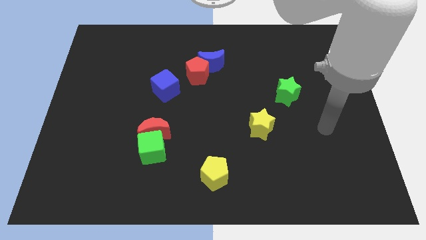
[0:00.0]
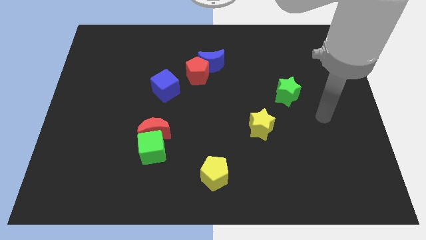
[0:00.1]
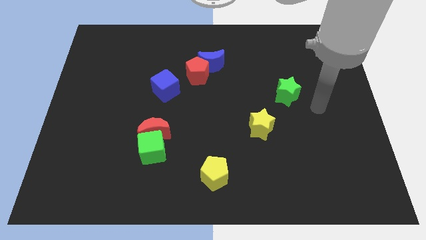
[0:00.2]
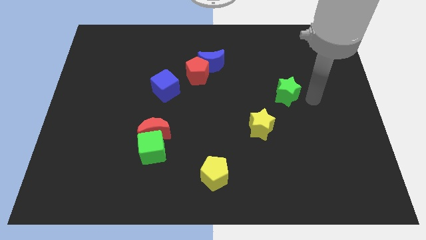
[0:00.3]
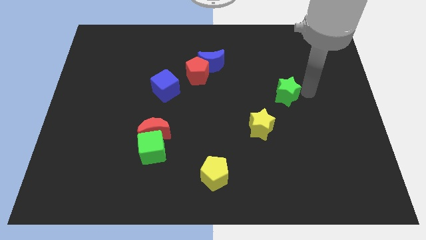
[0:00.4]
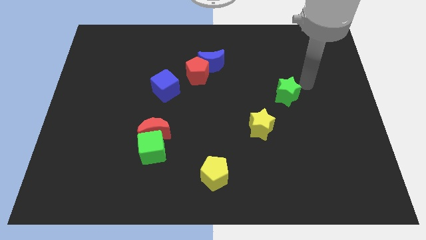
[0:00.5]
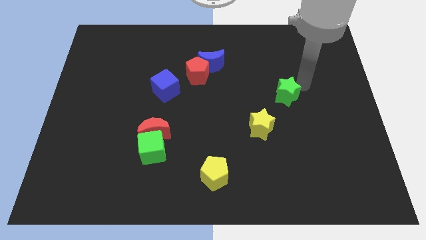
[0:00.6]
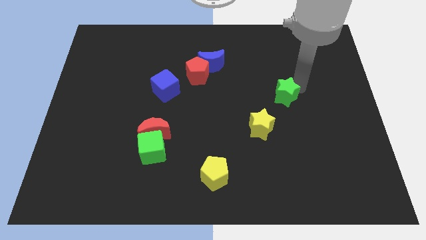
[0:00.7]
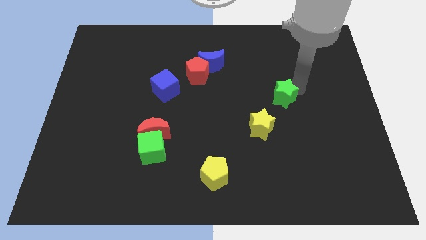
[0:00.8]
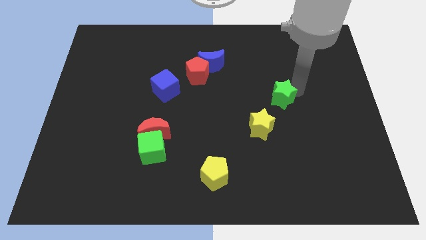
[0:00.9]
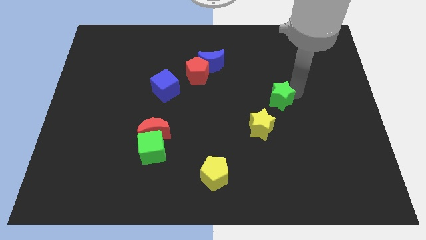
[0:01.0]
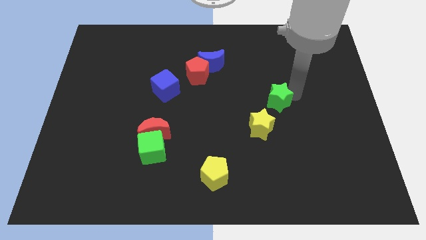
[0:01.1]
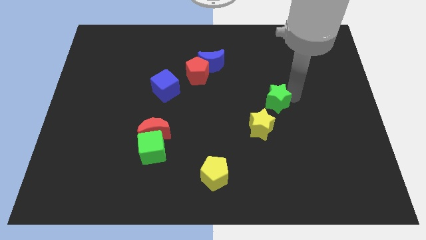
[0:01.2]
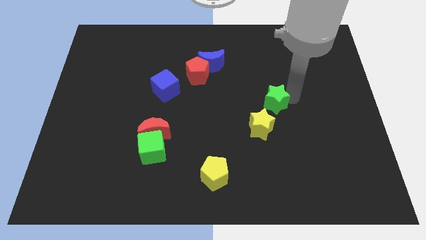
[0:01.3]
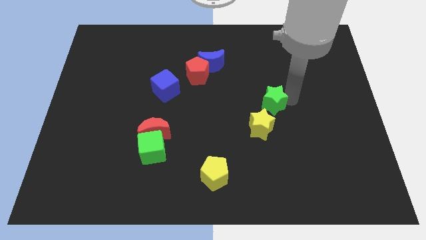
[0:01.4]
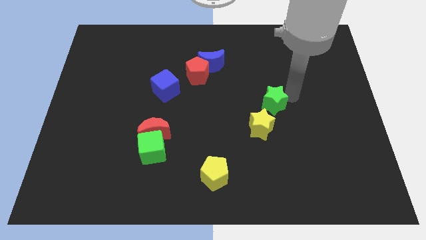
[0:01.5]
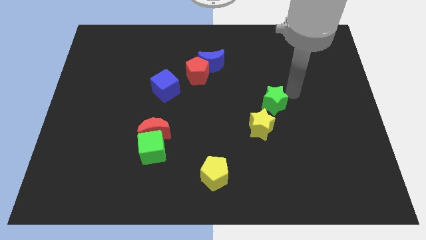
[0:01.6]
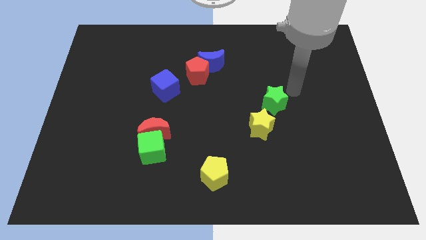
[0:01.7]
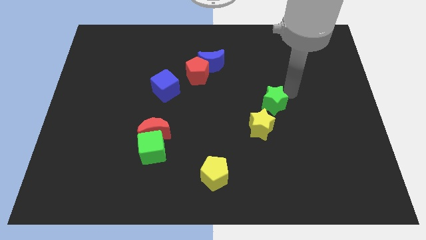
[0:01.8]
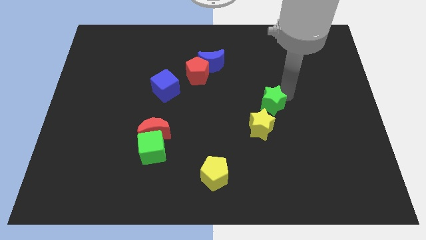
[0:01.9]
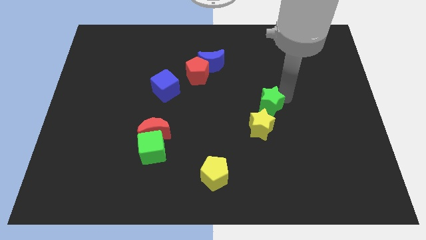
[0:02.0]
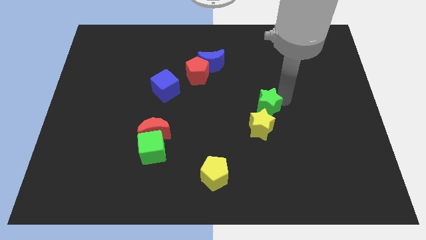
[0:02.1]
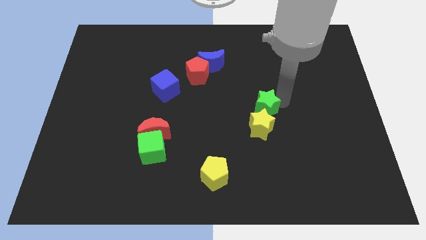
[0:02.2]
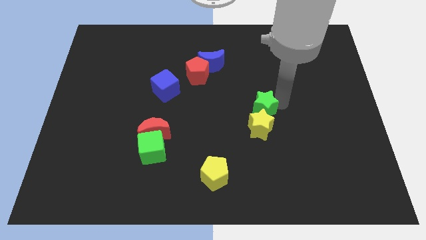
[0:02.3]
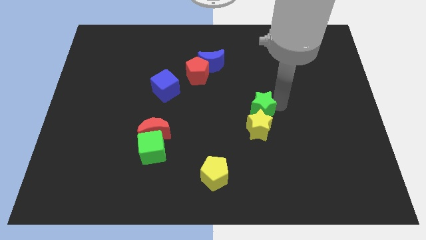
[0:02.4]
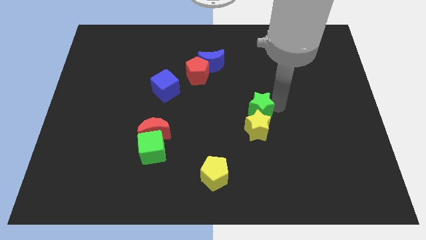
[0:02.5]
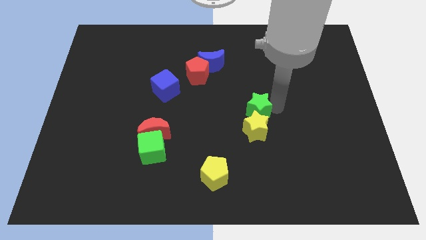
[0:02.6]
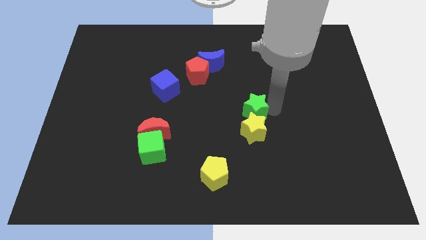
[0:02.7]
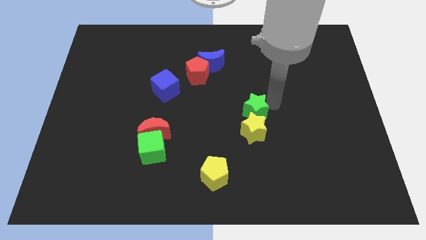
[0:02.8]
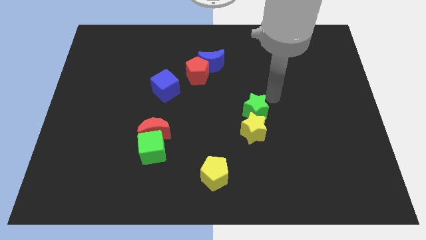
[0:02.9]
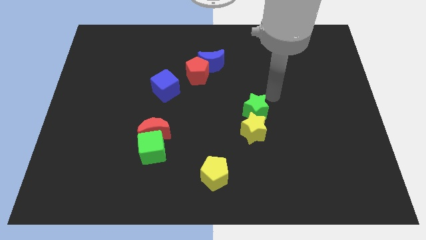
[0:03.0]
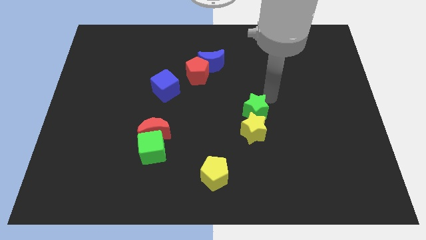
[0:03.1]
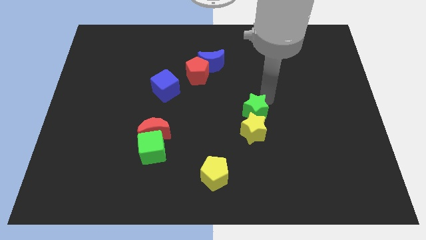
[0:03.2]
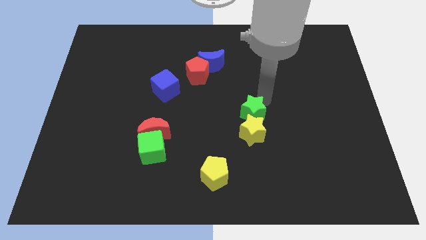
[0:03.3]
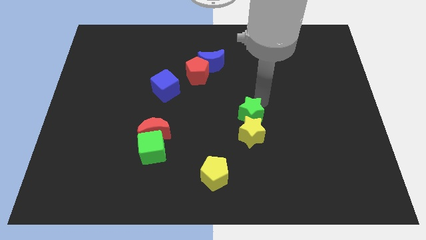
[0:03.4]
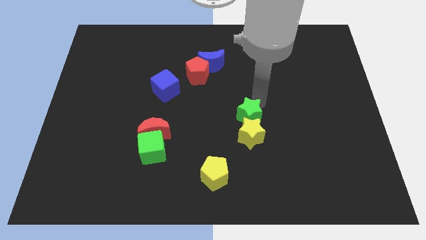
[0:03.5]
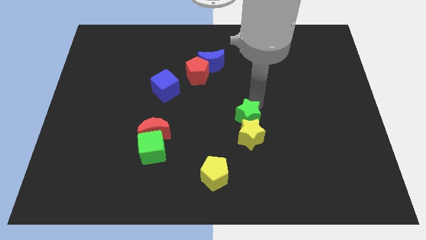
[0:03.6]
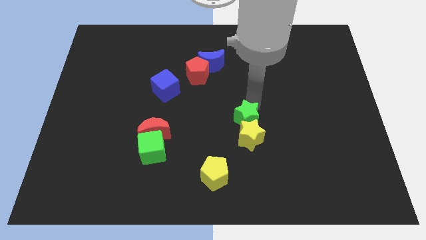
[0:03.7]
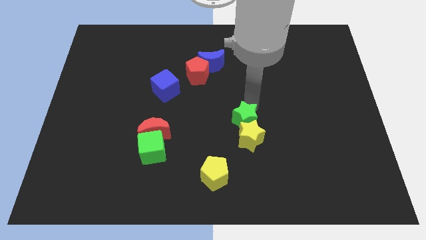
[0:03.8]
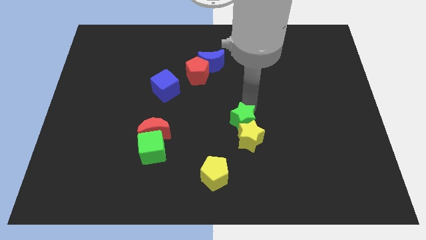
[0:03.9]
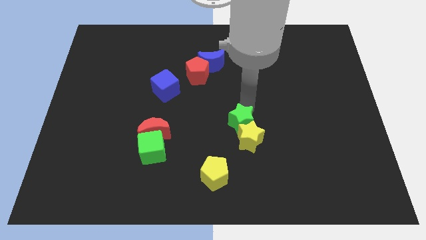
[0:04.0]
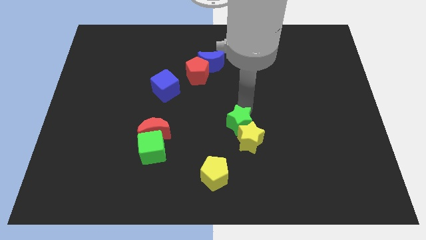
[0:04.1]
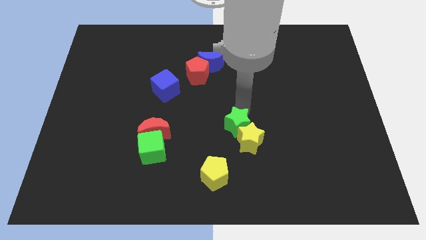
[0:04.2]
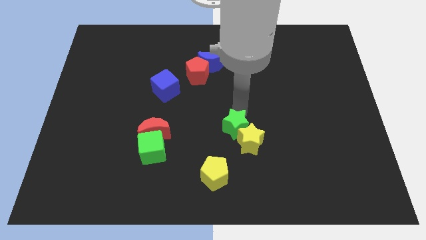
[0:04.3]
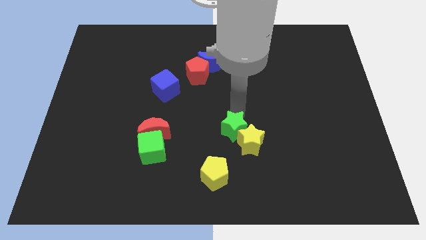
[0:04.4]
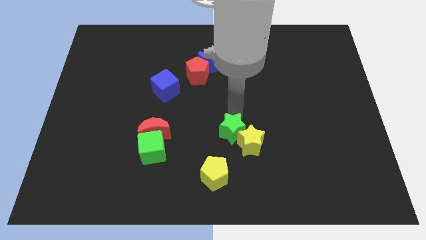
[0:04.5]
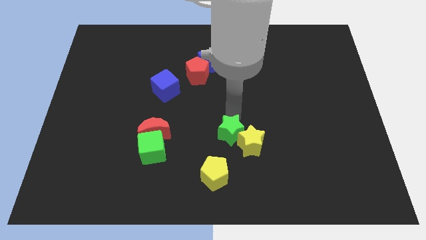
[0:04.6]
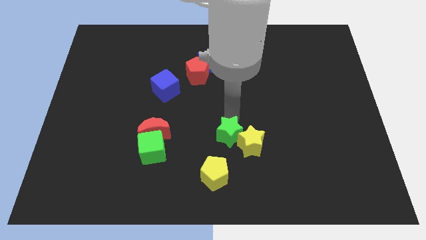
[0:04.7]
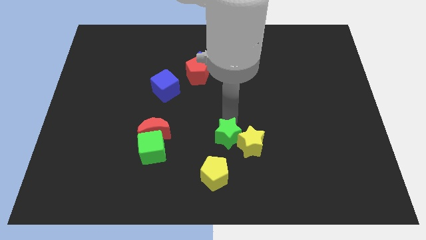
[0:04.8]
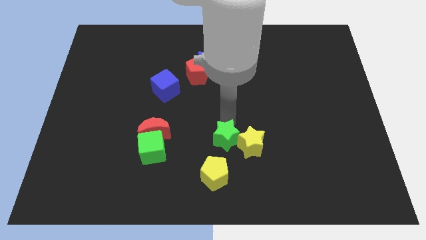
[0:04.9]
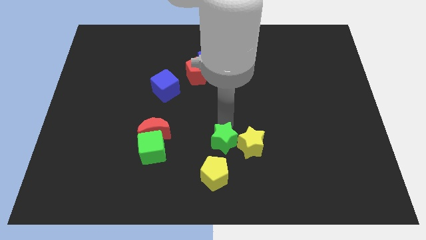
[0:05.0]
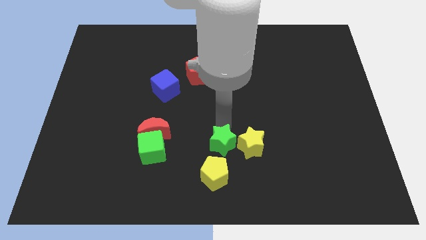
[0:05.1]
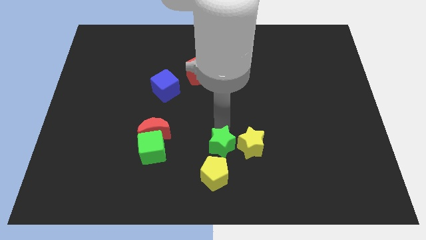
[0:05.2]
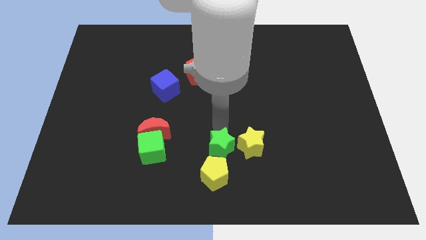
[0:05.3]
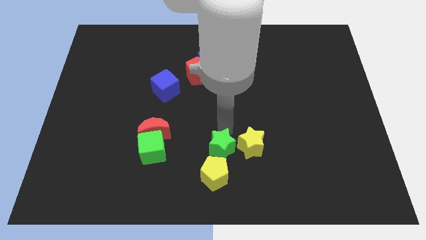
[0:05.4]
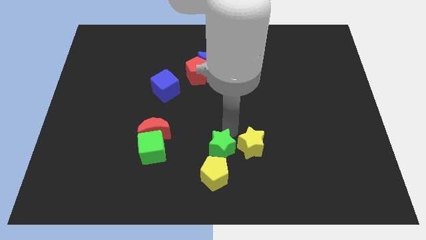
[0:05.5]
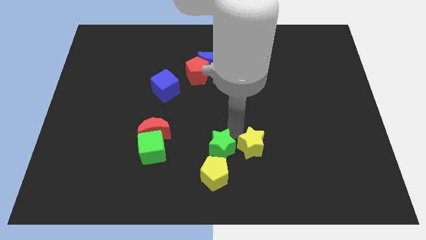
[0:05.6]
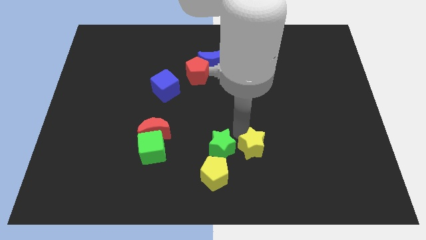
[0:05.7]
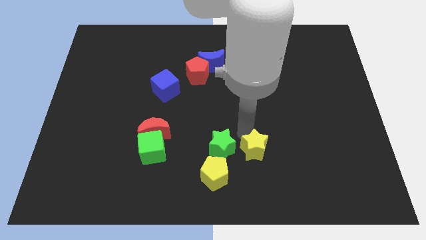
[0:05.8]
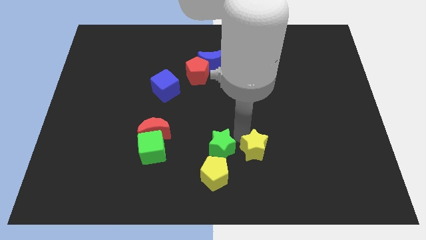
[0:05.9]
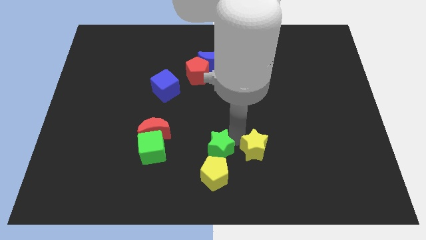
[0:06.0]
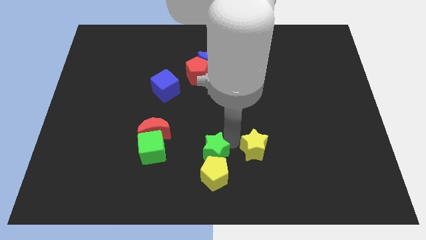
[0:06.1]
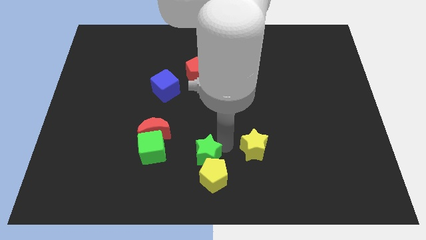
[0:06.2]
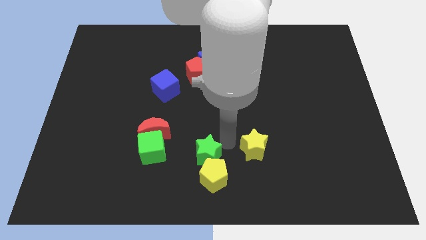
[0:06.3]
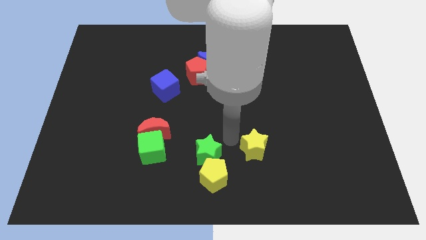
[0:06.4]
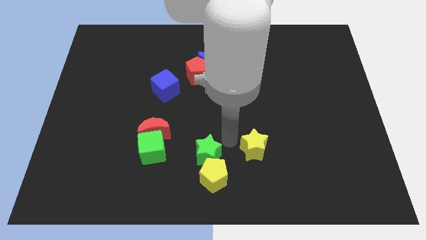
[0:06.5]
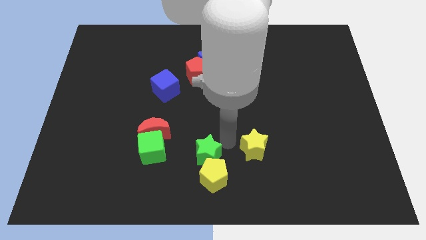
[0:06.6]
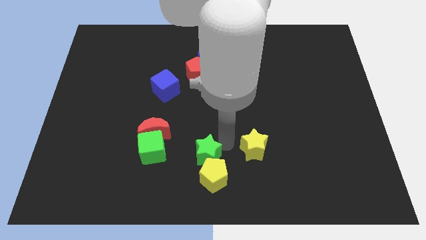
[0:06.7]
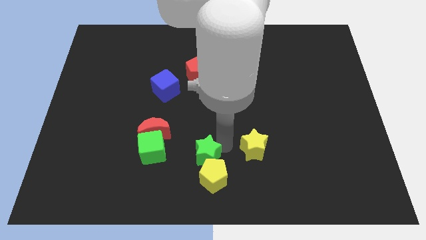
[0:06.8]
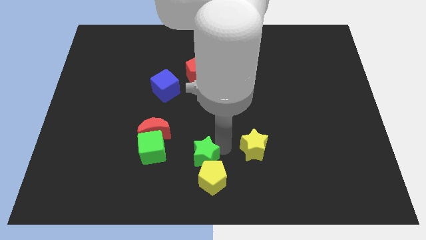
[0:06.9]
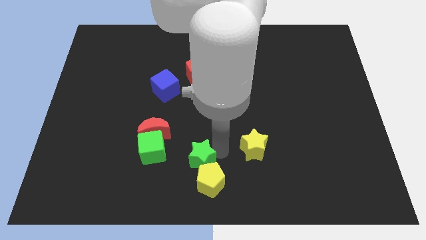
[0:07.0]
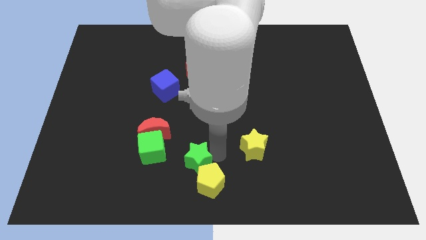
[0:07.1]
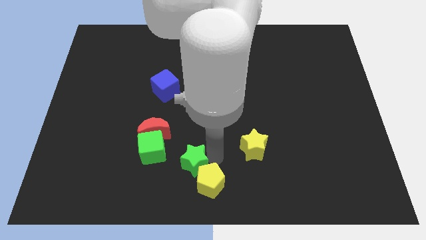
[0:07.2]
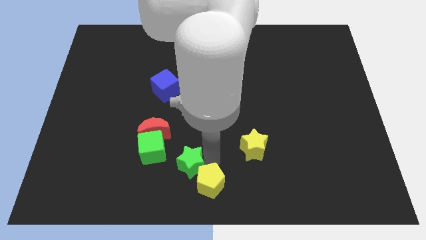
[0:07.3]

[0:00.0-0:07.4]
push the green star to the left side of the yellow pentagon

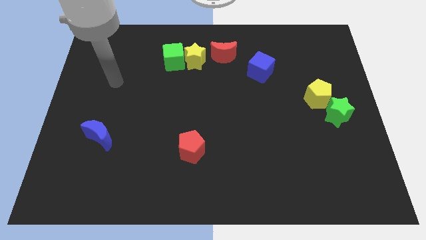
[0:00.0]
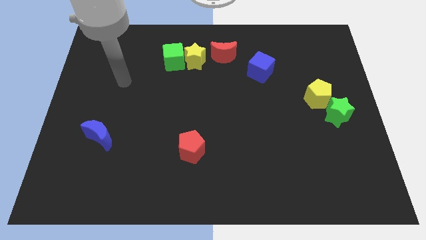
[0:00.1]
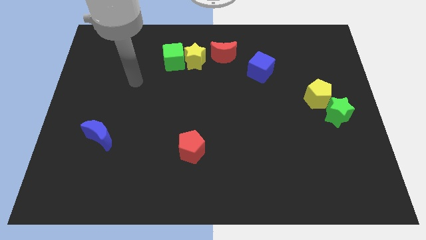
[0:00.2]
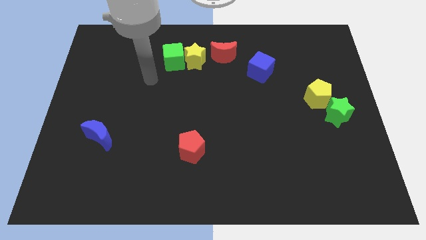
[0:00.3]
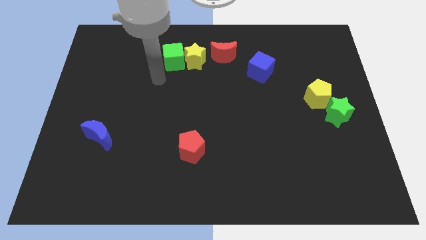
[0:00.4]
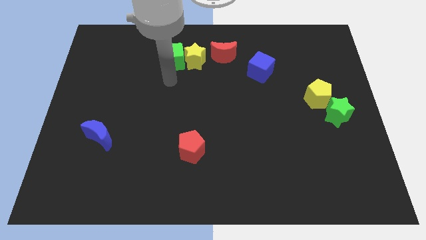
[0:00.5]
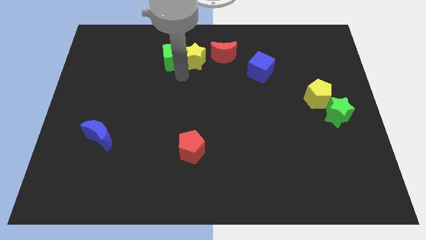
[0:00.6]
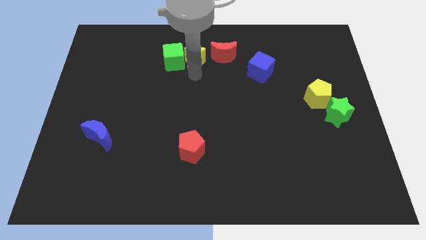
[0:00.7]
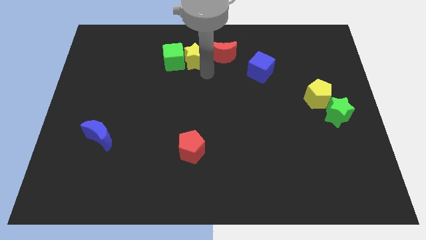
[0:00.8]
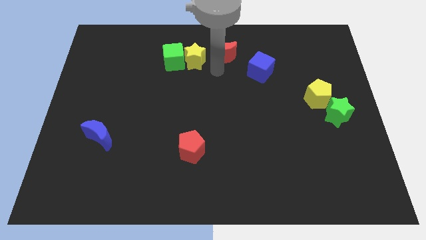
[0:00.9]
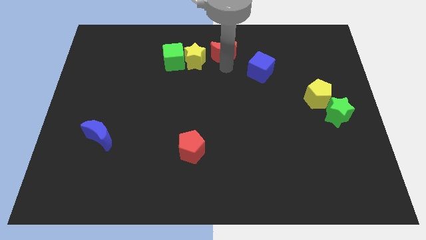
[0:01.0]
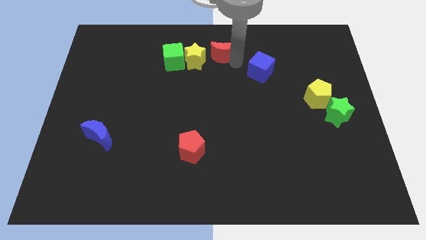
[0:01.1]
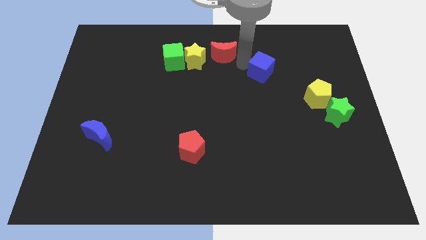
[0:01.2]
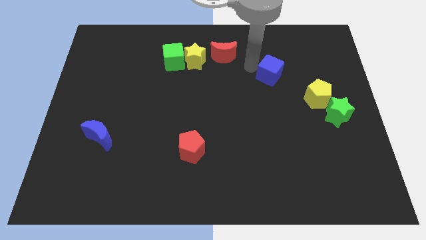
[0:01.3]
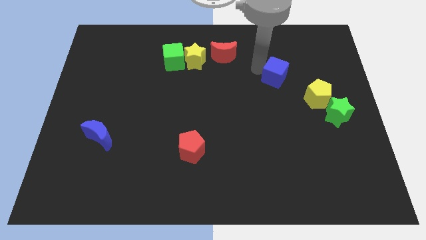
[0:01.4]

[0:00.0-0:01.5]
push the blue cube to the top left side of the yellow pentagon
